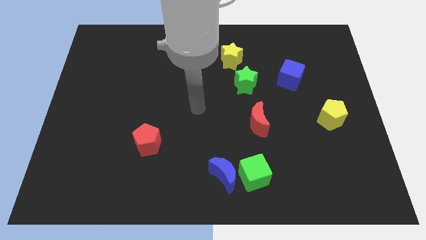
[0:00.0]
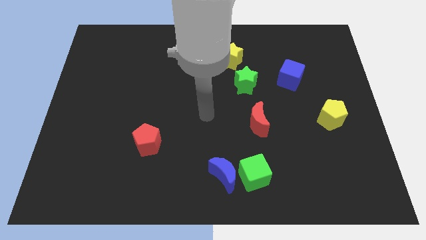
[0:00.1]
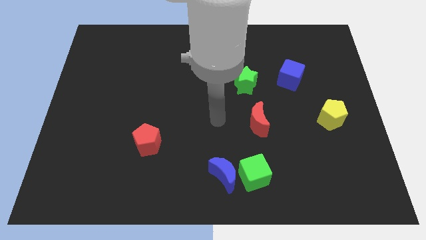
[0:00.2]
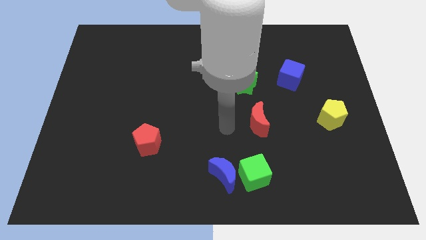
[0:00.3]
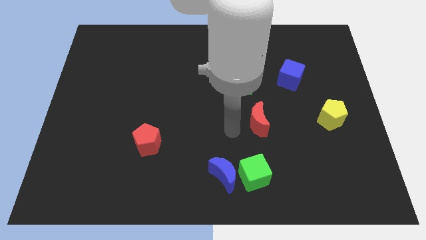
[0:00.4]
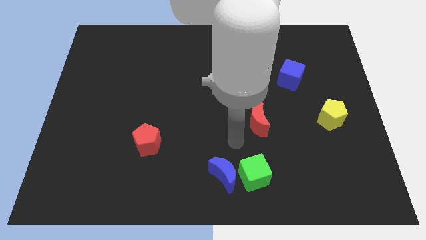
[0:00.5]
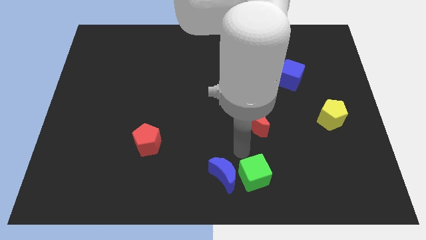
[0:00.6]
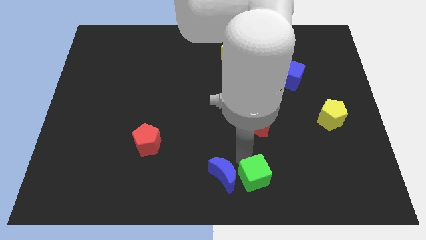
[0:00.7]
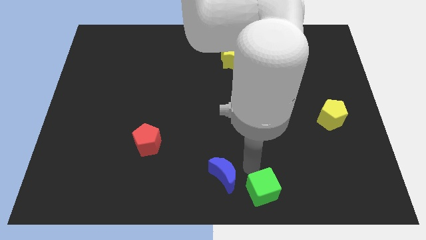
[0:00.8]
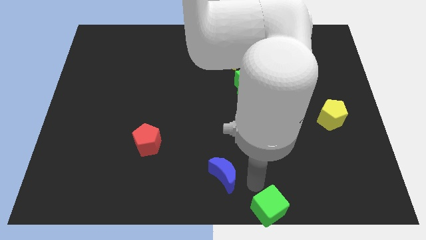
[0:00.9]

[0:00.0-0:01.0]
separate the blue moon from the green cube

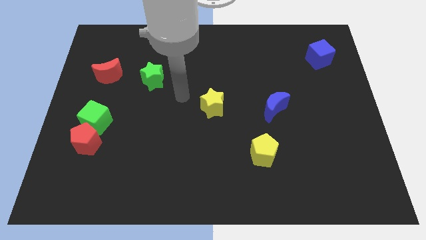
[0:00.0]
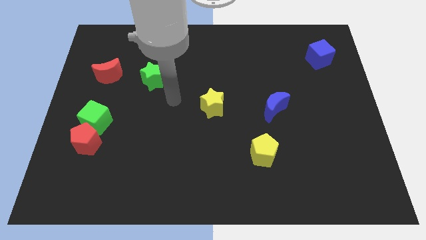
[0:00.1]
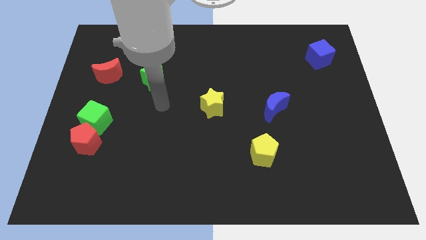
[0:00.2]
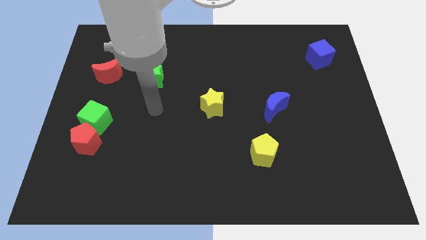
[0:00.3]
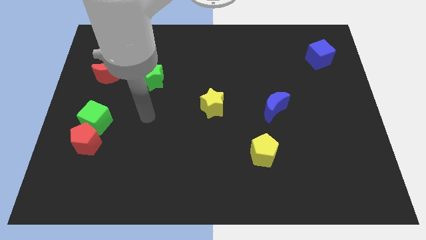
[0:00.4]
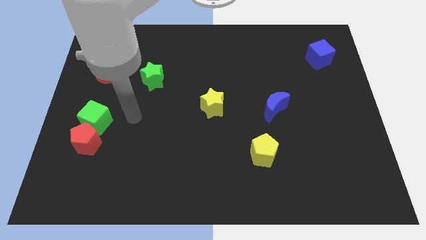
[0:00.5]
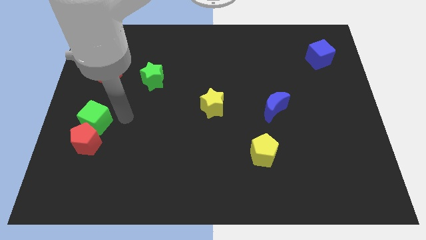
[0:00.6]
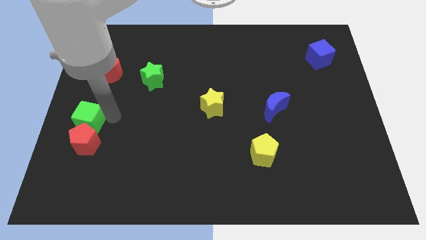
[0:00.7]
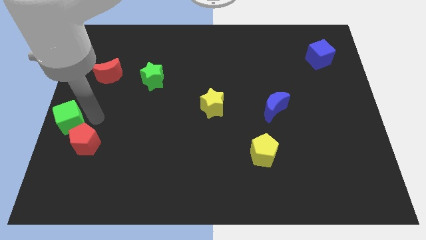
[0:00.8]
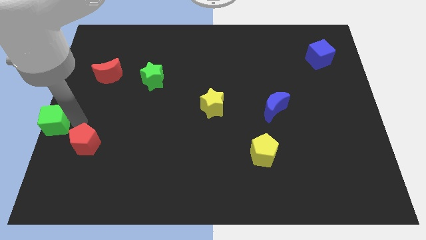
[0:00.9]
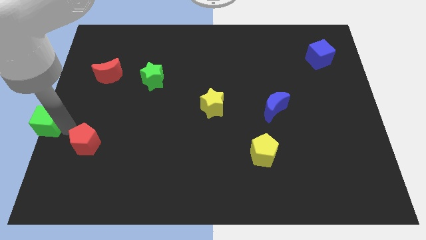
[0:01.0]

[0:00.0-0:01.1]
separate the red pentagon from the green cube

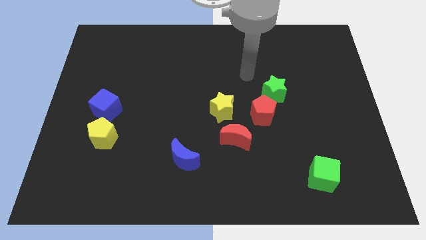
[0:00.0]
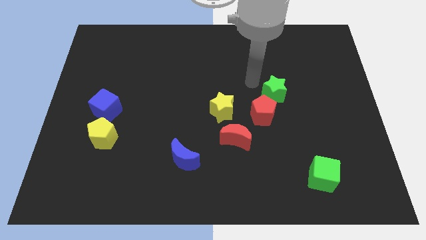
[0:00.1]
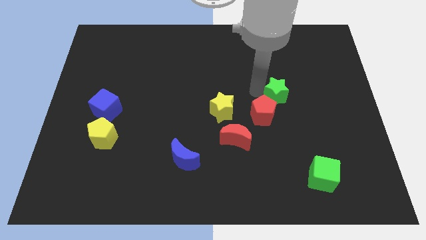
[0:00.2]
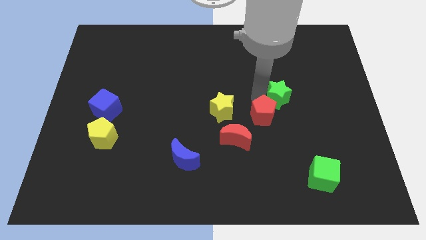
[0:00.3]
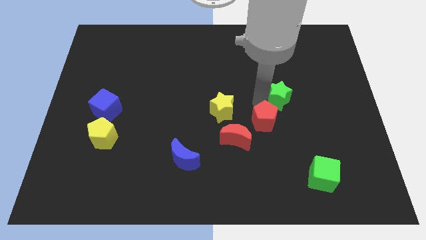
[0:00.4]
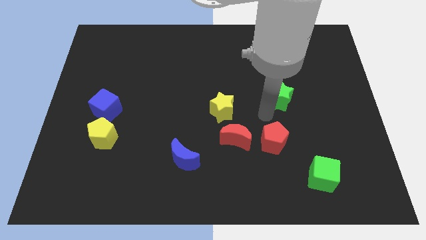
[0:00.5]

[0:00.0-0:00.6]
move the green star away from the red pentagon

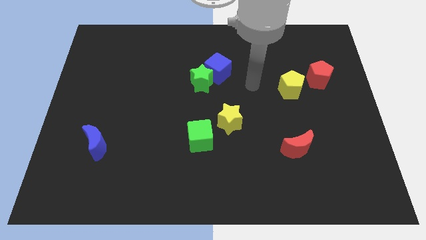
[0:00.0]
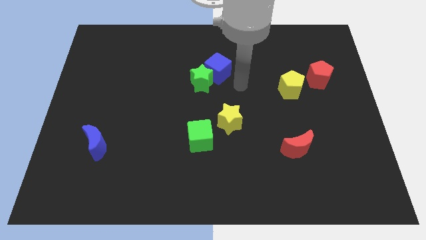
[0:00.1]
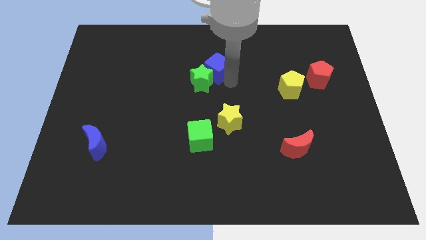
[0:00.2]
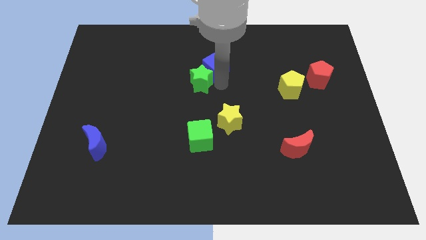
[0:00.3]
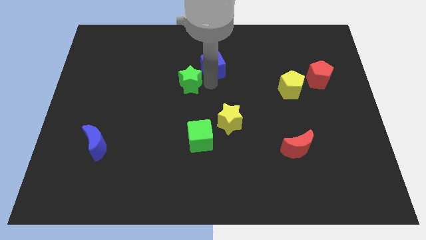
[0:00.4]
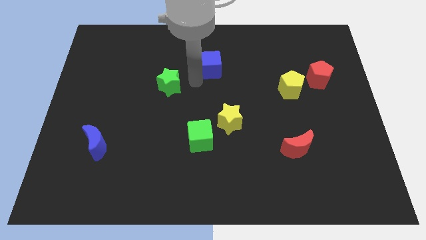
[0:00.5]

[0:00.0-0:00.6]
move the blue cube away from the green star

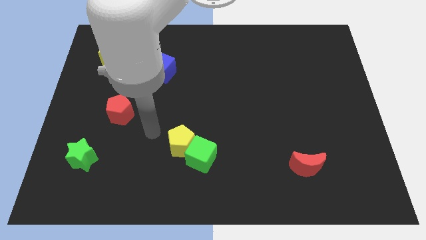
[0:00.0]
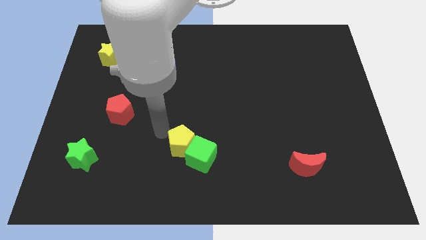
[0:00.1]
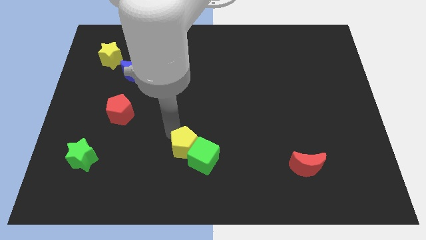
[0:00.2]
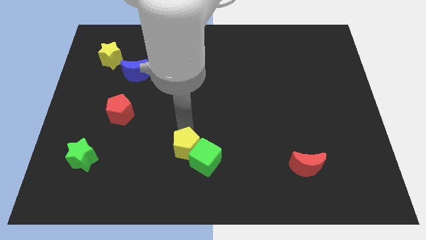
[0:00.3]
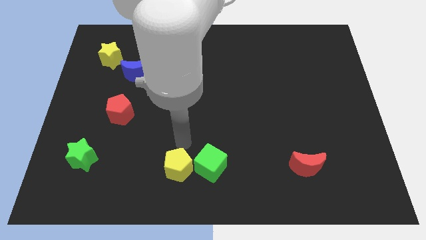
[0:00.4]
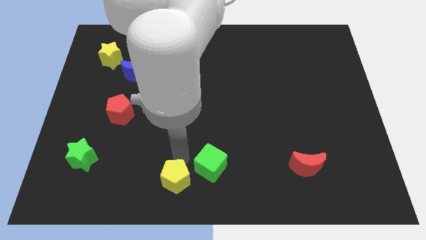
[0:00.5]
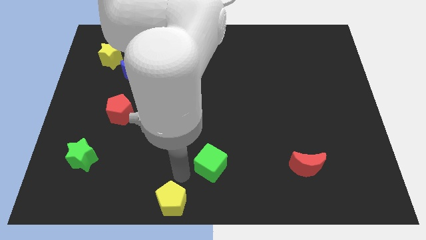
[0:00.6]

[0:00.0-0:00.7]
move the green cube away from the yellow pentagon

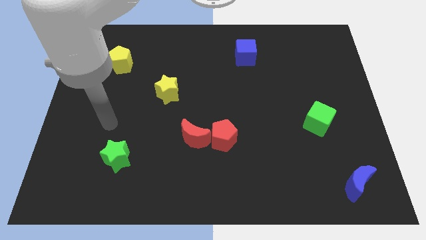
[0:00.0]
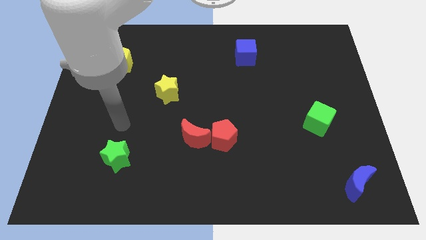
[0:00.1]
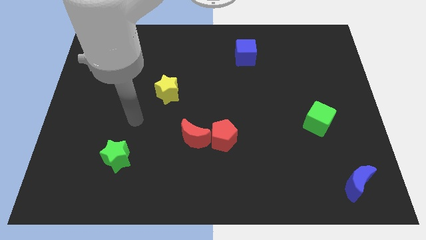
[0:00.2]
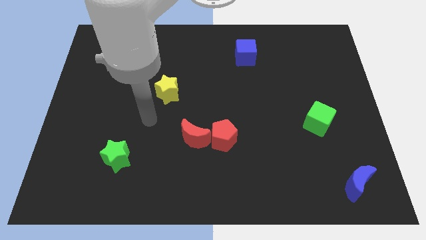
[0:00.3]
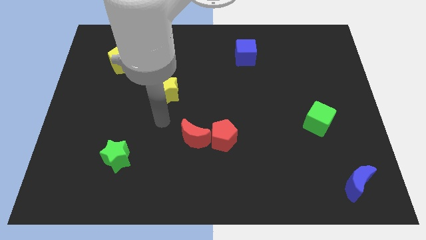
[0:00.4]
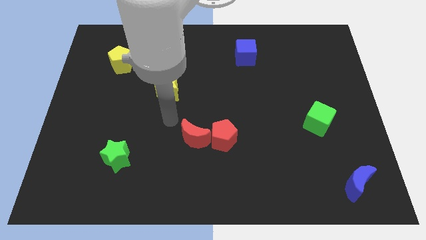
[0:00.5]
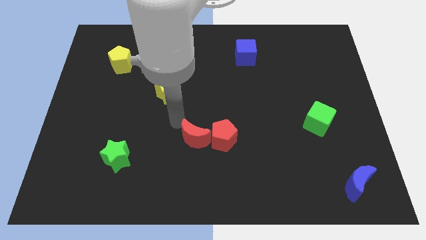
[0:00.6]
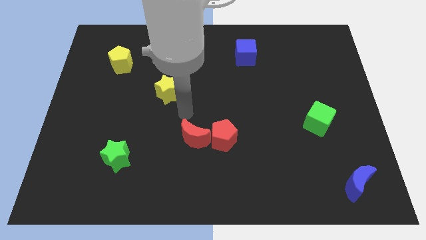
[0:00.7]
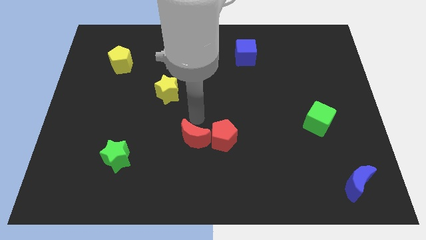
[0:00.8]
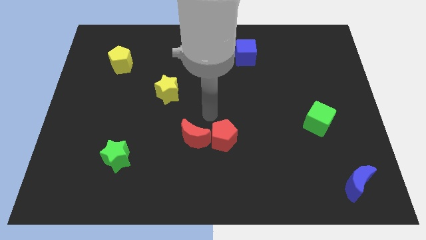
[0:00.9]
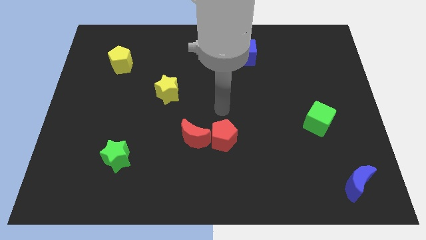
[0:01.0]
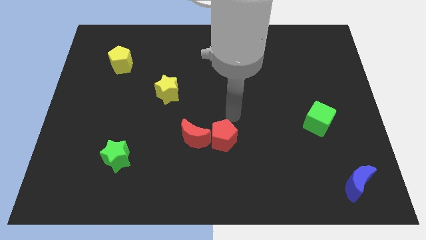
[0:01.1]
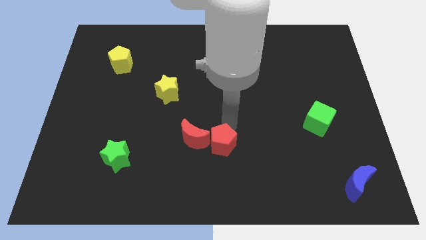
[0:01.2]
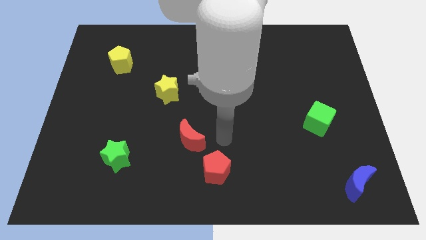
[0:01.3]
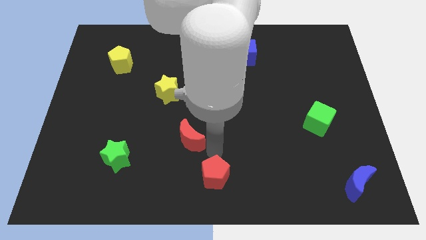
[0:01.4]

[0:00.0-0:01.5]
move the red moon away from the red pentagon

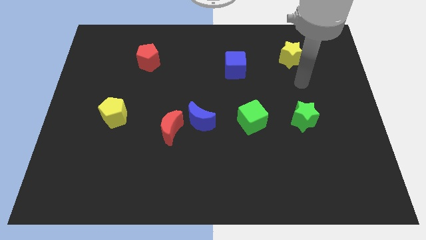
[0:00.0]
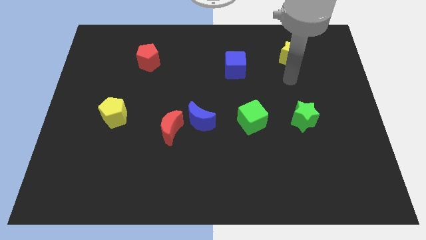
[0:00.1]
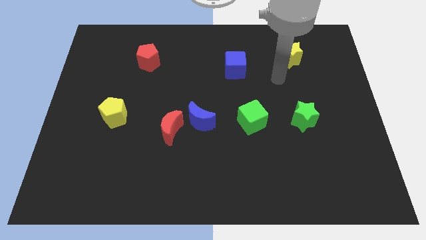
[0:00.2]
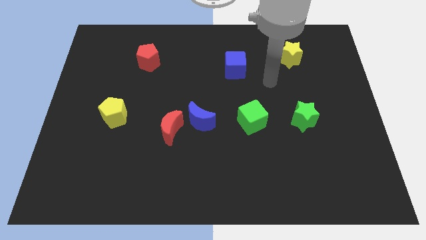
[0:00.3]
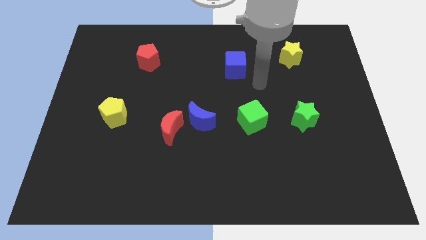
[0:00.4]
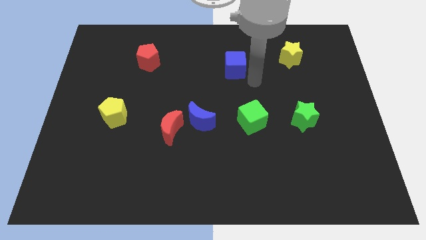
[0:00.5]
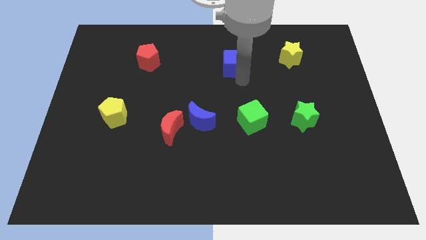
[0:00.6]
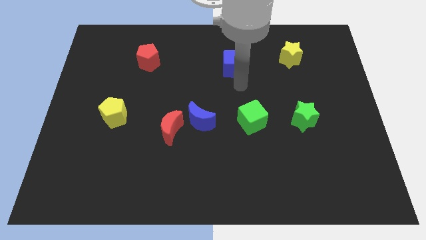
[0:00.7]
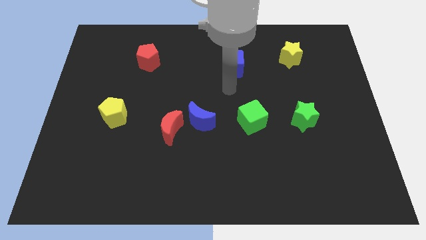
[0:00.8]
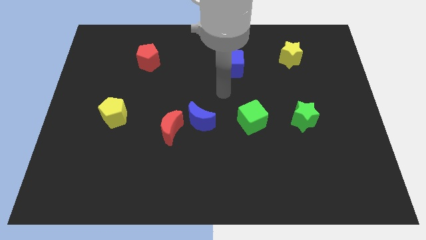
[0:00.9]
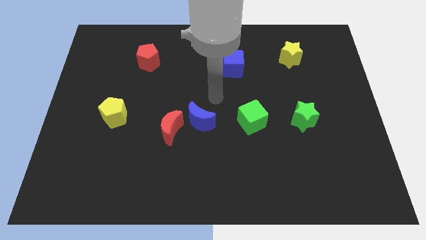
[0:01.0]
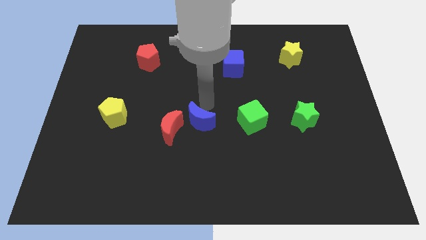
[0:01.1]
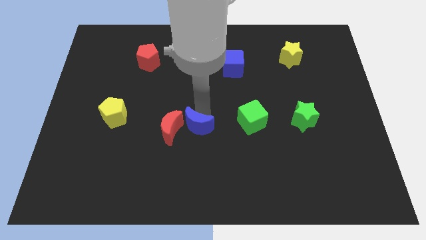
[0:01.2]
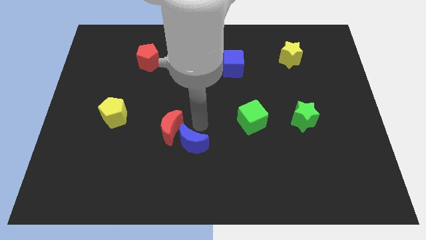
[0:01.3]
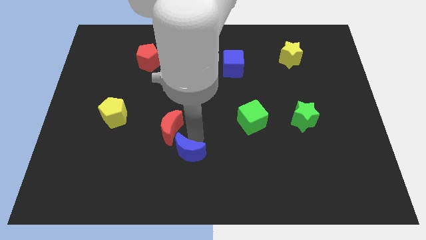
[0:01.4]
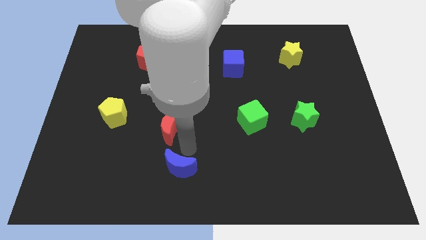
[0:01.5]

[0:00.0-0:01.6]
pull the red moon apart from the blue moon

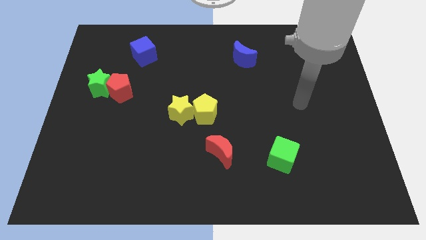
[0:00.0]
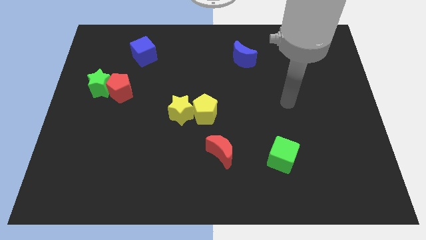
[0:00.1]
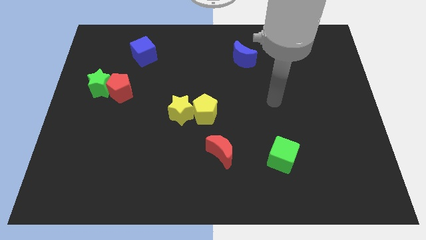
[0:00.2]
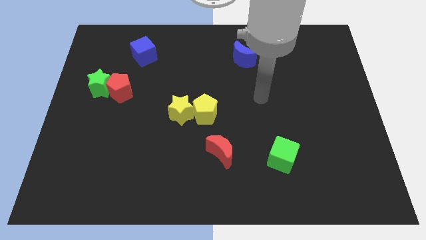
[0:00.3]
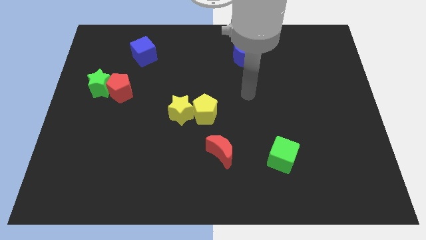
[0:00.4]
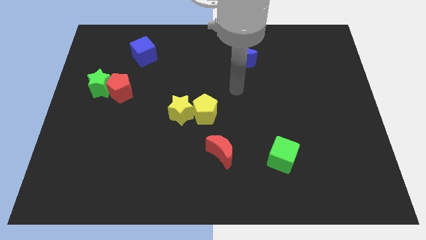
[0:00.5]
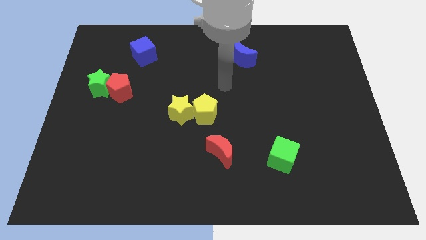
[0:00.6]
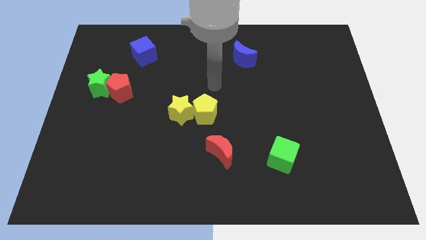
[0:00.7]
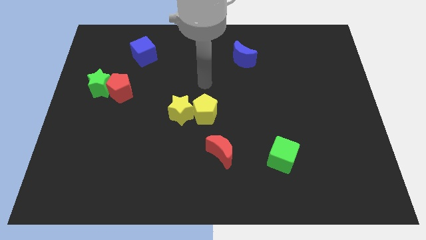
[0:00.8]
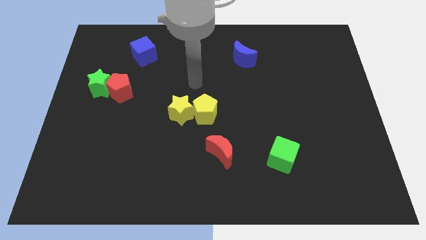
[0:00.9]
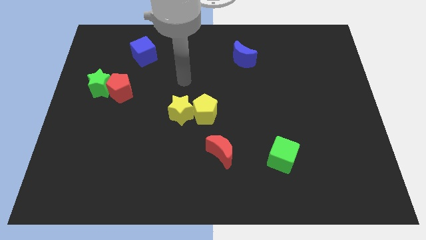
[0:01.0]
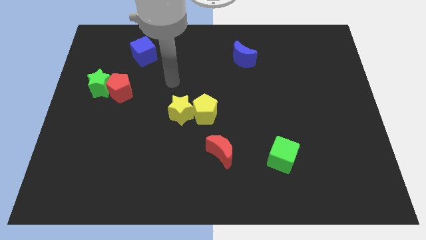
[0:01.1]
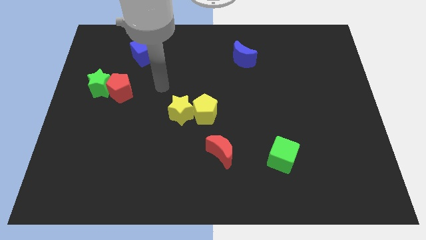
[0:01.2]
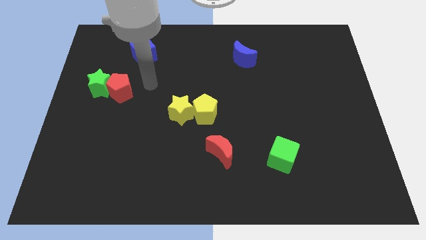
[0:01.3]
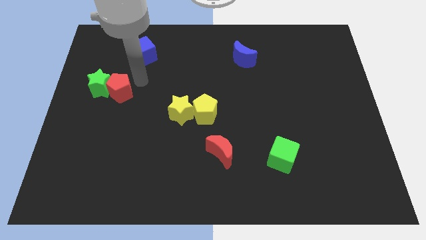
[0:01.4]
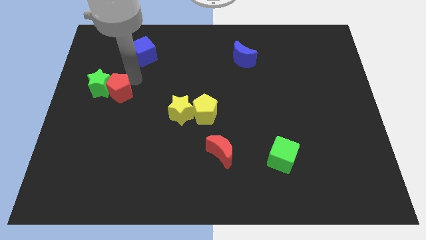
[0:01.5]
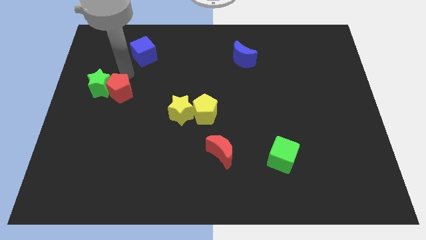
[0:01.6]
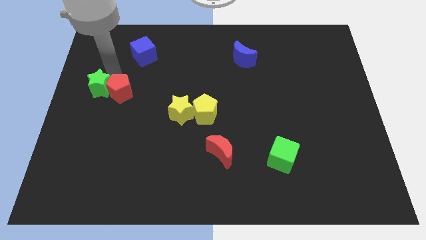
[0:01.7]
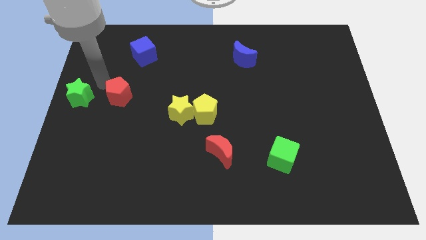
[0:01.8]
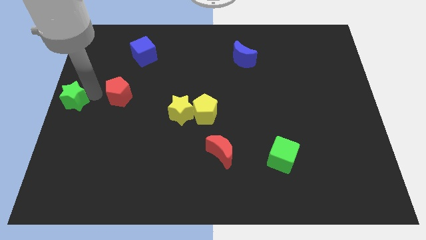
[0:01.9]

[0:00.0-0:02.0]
separate the red pentagon from the green star

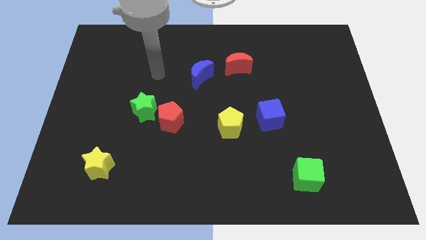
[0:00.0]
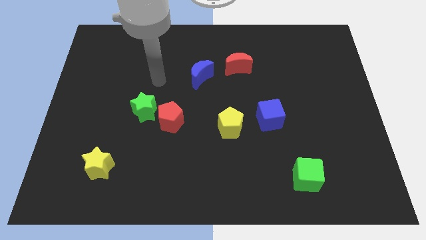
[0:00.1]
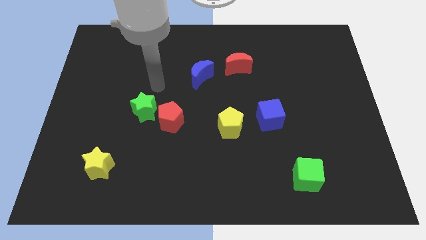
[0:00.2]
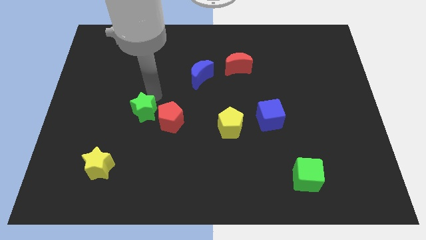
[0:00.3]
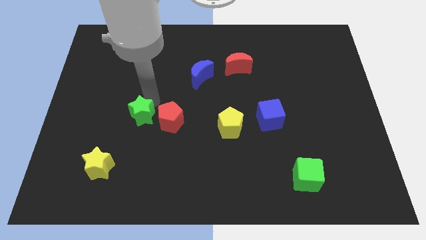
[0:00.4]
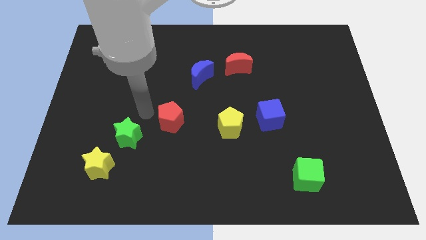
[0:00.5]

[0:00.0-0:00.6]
pull the red pentagon apart from the green star
